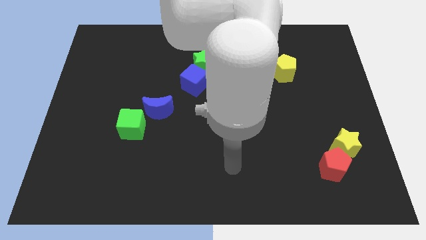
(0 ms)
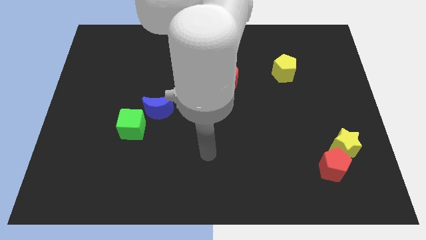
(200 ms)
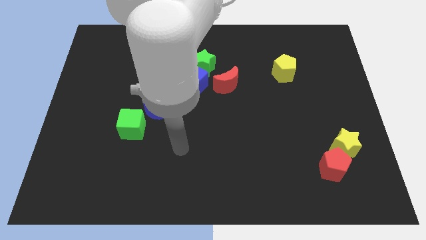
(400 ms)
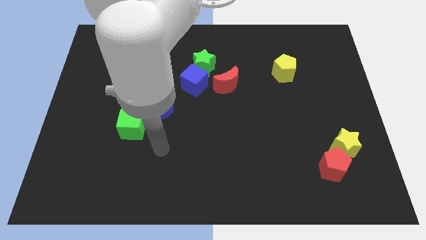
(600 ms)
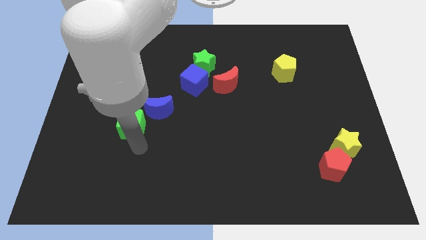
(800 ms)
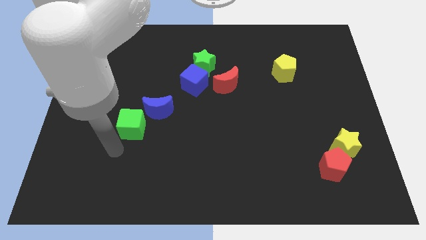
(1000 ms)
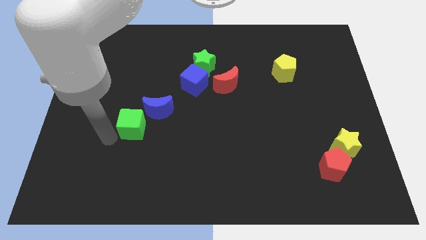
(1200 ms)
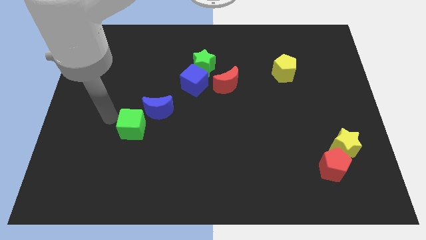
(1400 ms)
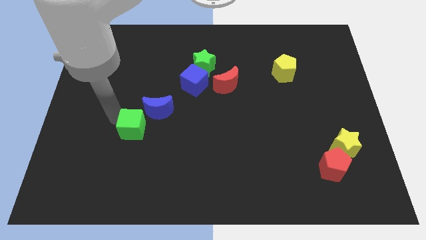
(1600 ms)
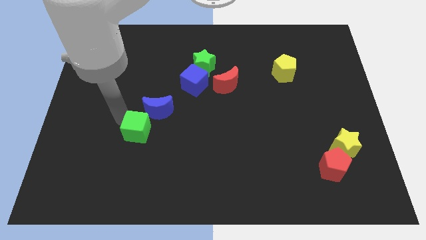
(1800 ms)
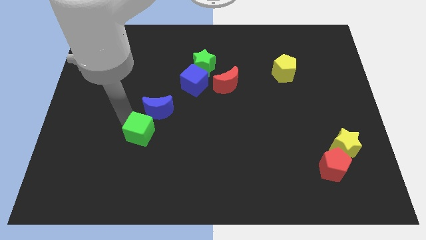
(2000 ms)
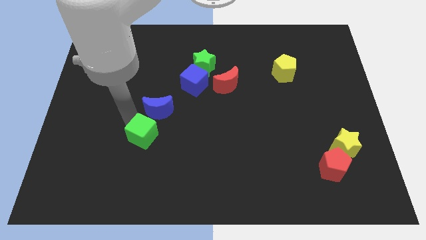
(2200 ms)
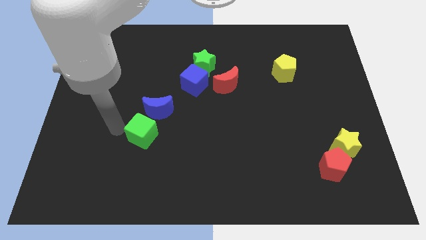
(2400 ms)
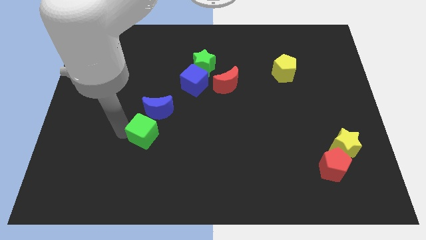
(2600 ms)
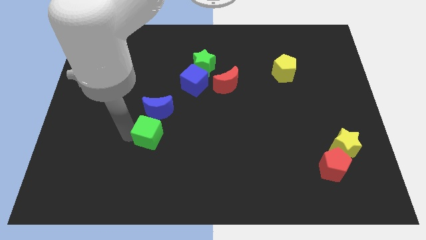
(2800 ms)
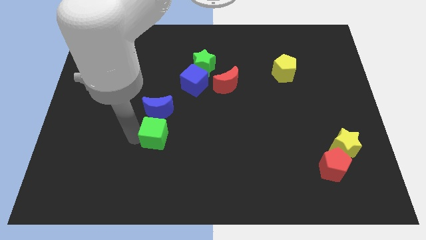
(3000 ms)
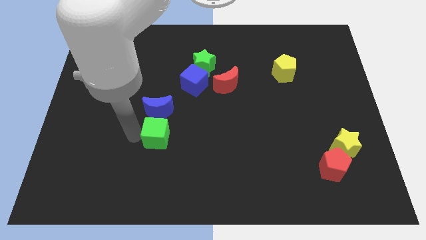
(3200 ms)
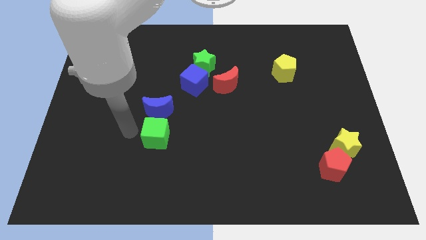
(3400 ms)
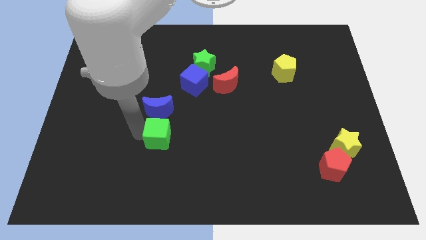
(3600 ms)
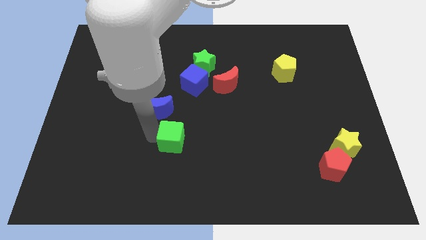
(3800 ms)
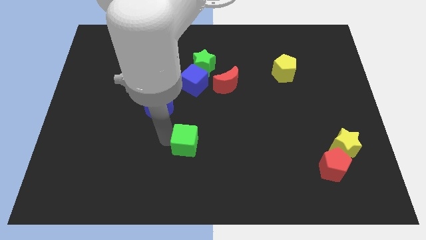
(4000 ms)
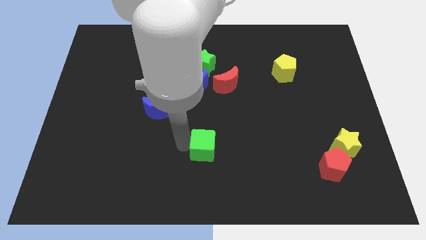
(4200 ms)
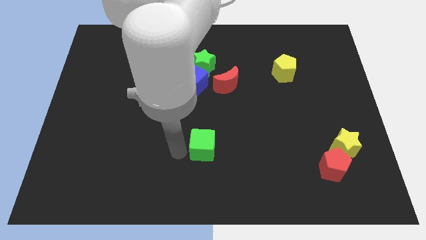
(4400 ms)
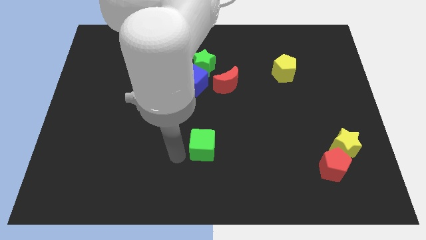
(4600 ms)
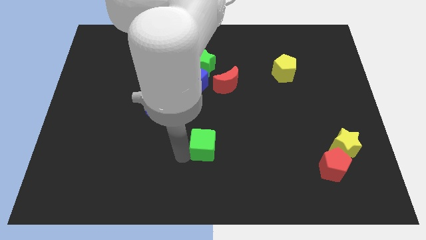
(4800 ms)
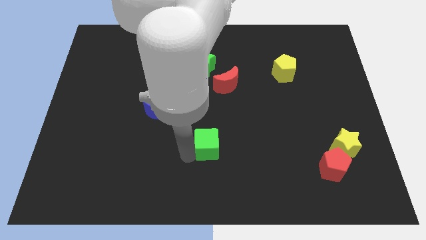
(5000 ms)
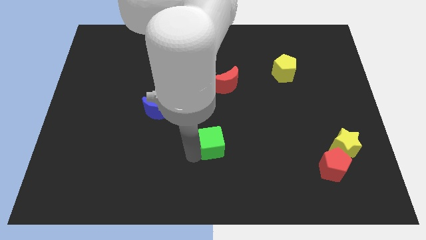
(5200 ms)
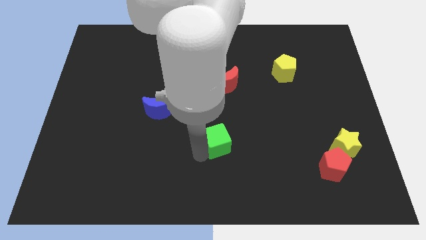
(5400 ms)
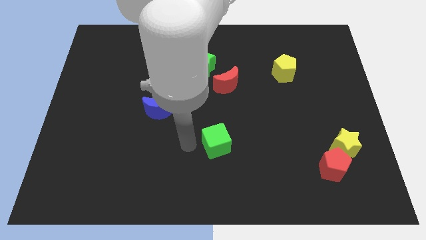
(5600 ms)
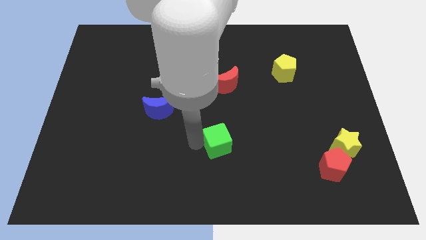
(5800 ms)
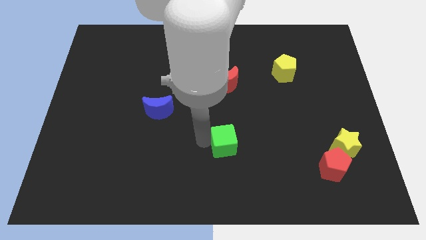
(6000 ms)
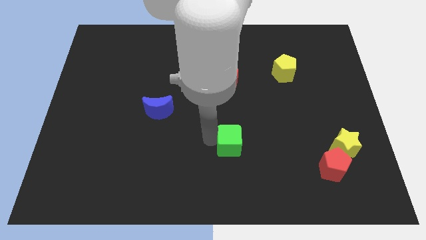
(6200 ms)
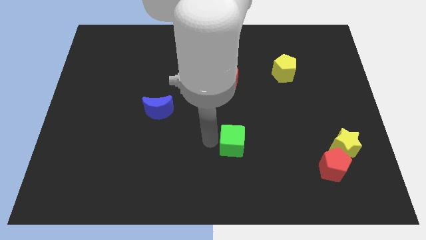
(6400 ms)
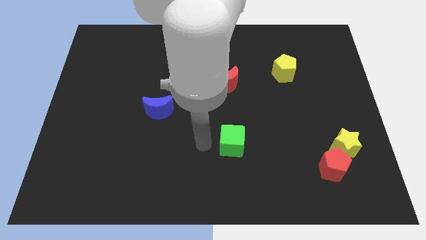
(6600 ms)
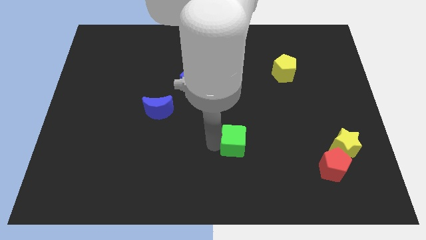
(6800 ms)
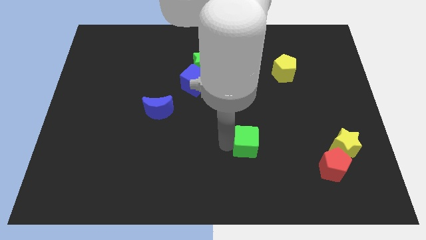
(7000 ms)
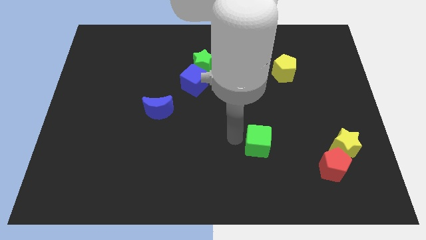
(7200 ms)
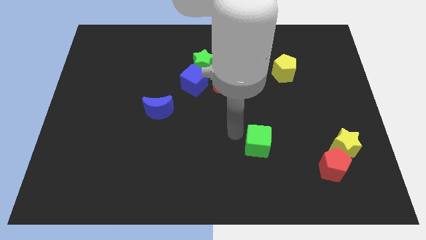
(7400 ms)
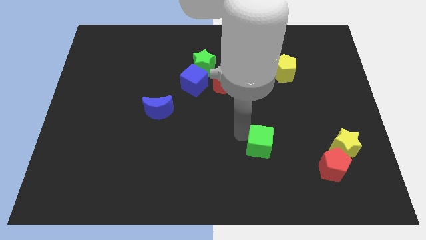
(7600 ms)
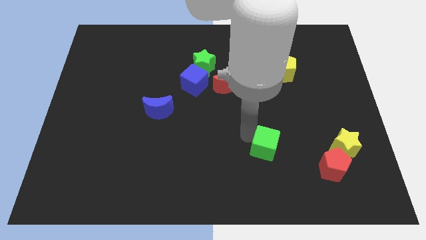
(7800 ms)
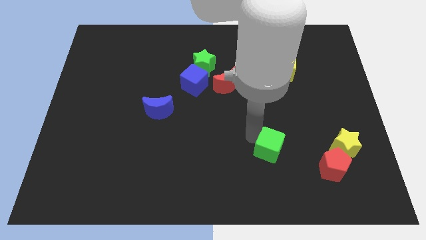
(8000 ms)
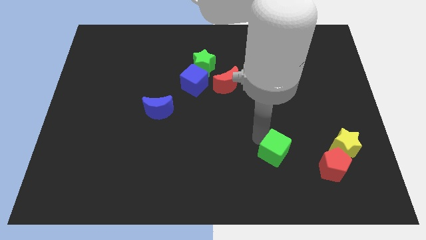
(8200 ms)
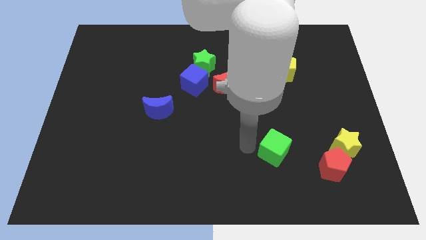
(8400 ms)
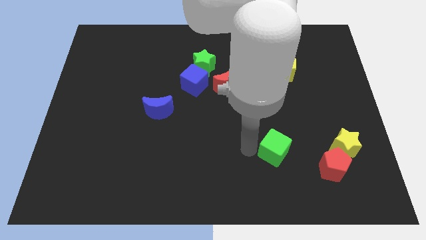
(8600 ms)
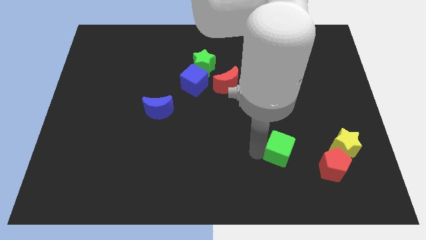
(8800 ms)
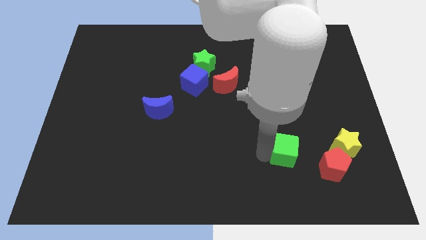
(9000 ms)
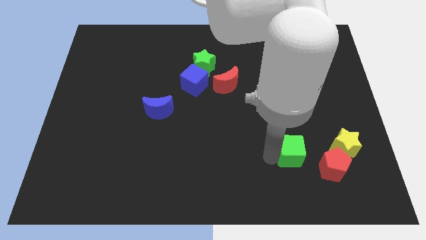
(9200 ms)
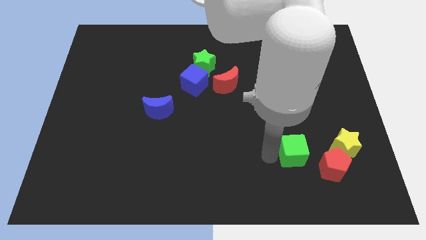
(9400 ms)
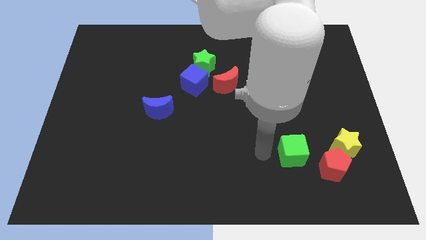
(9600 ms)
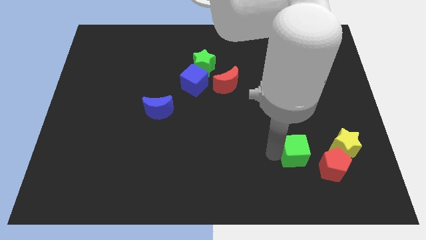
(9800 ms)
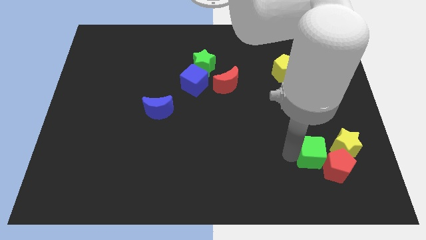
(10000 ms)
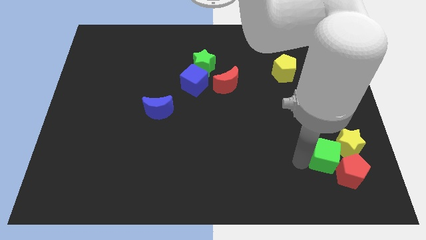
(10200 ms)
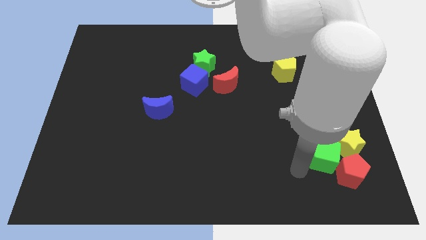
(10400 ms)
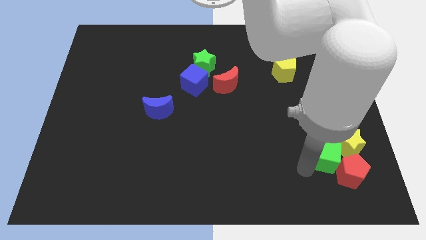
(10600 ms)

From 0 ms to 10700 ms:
put the green cube close to the yellow star
